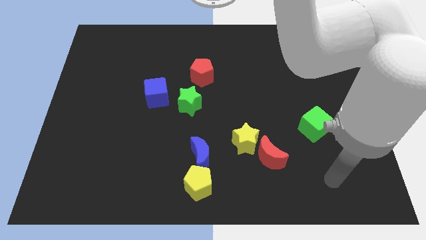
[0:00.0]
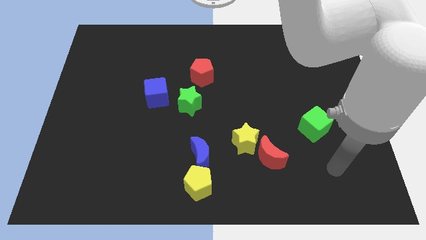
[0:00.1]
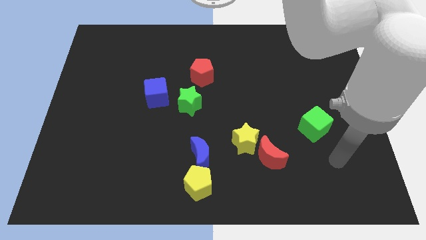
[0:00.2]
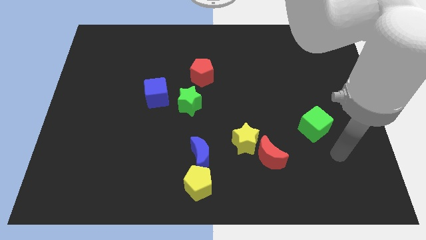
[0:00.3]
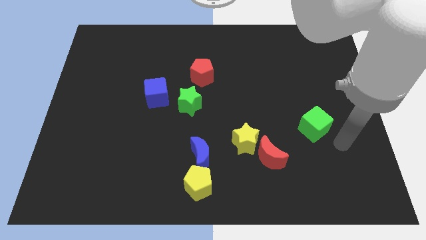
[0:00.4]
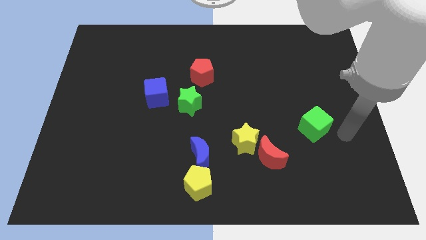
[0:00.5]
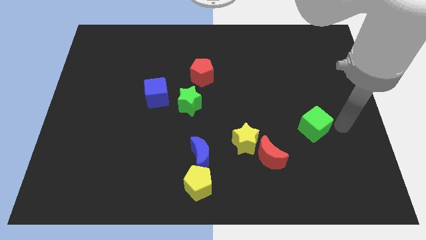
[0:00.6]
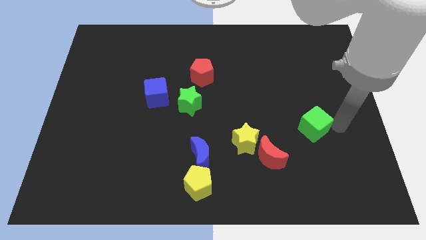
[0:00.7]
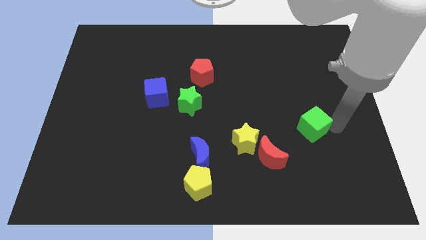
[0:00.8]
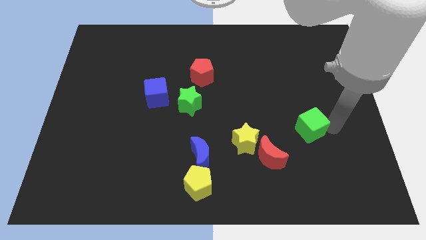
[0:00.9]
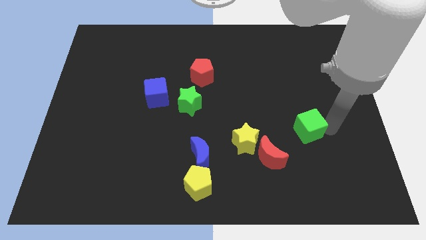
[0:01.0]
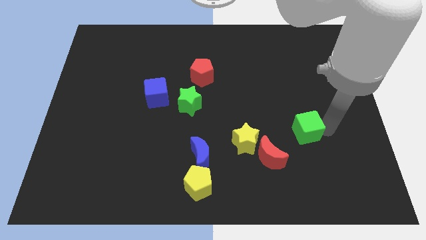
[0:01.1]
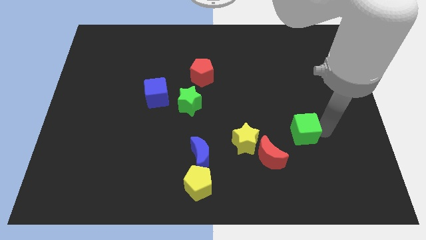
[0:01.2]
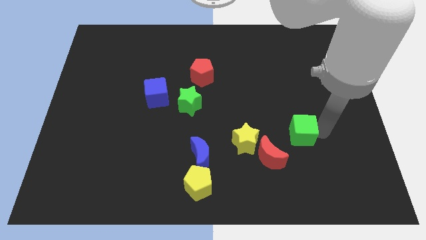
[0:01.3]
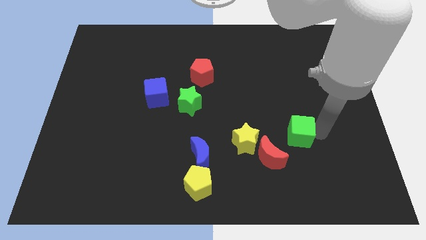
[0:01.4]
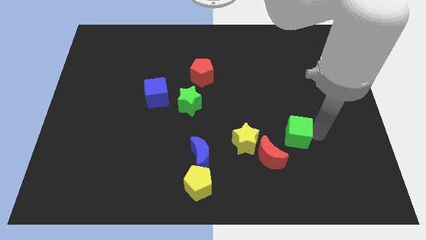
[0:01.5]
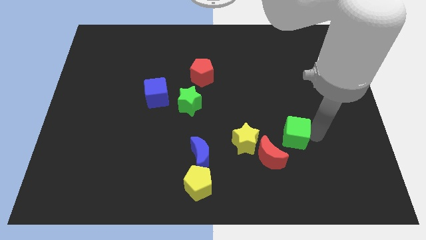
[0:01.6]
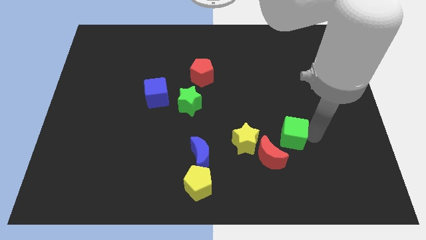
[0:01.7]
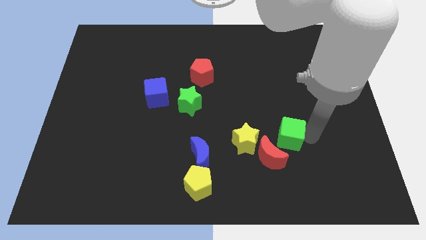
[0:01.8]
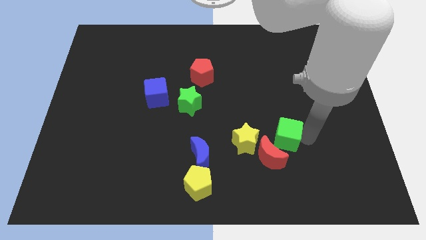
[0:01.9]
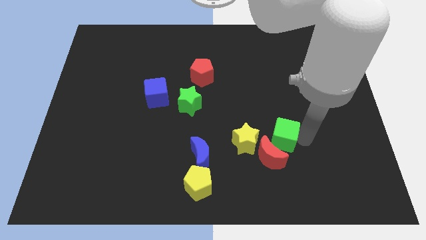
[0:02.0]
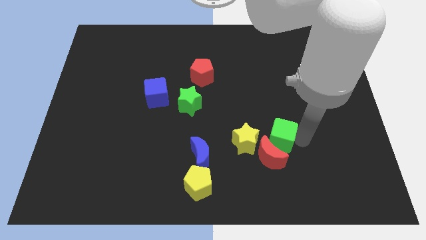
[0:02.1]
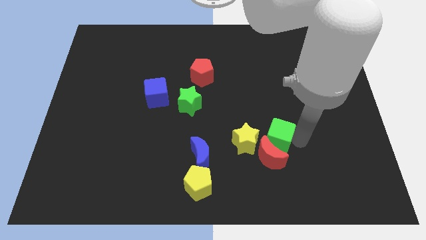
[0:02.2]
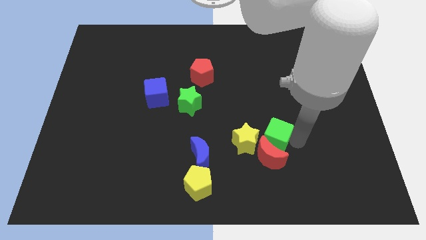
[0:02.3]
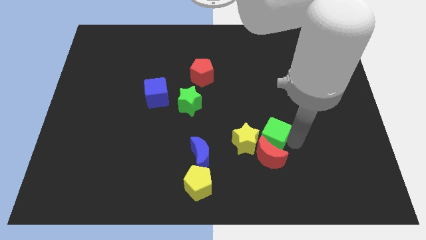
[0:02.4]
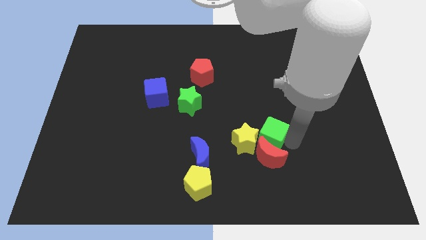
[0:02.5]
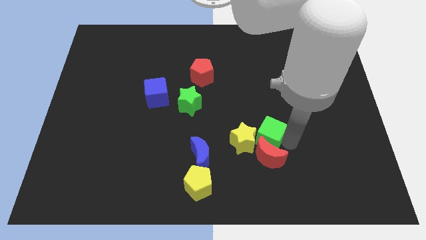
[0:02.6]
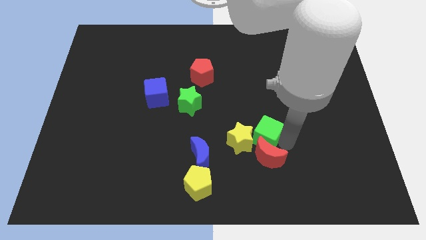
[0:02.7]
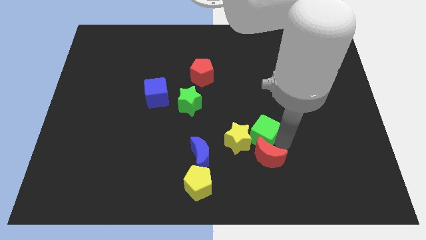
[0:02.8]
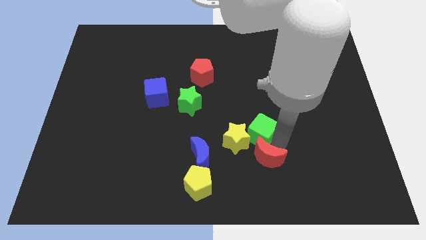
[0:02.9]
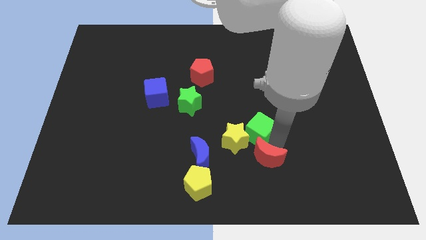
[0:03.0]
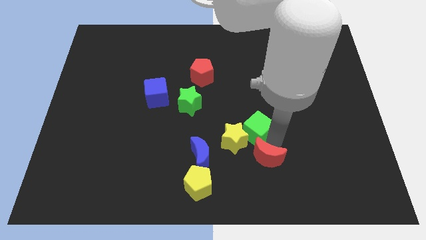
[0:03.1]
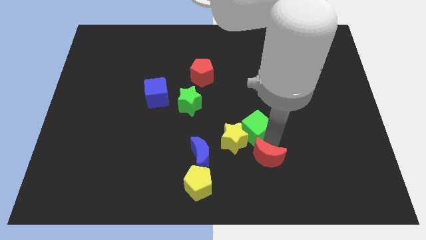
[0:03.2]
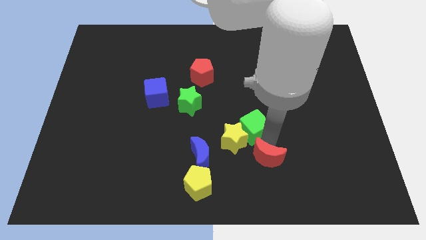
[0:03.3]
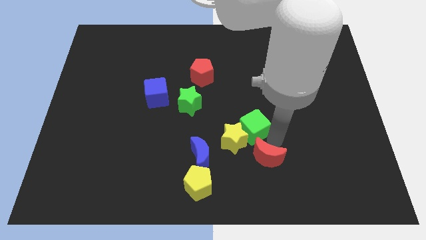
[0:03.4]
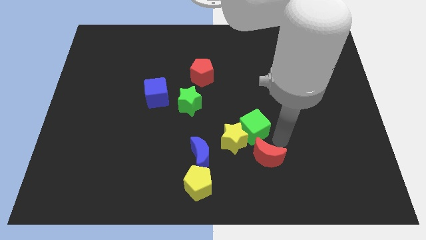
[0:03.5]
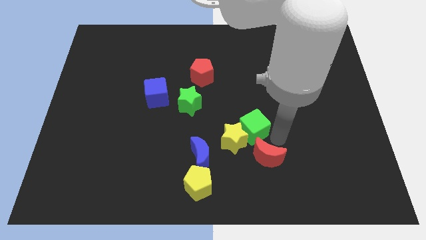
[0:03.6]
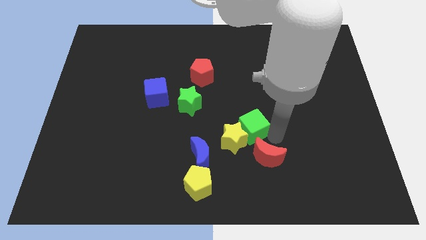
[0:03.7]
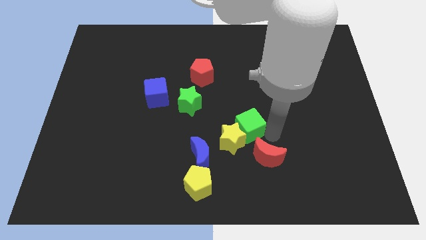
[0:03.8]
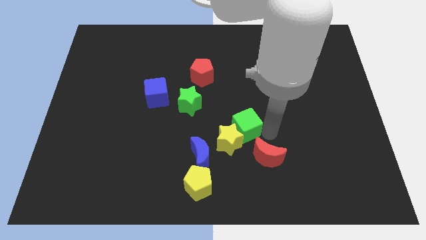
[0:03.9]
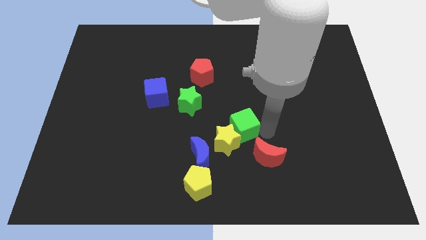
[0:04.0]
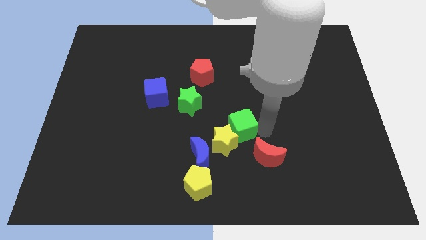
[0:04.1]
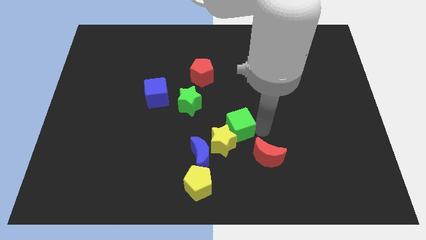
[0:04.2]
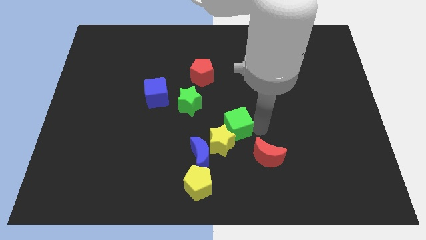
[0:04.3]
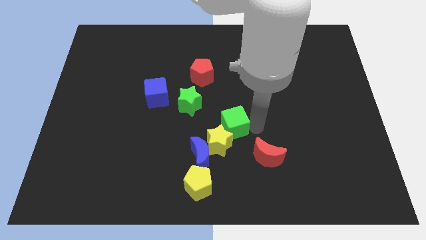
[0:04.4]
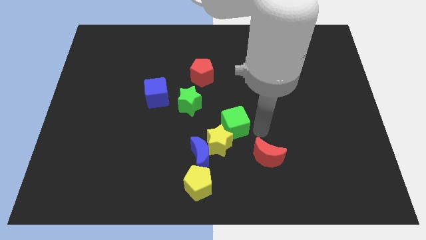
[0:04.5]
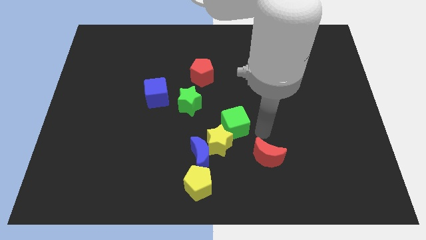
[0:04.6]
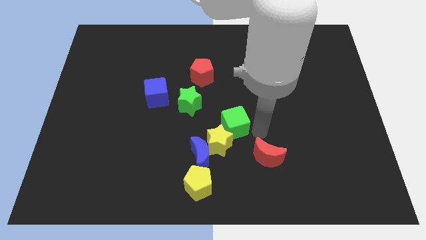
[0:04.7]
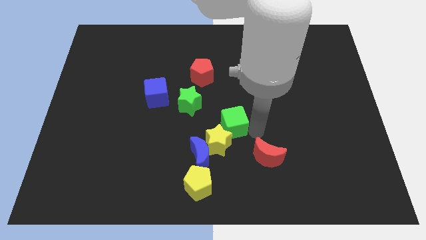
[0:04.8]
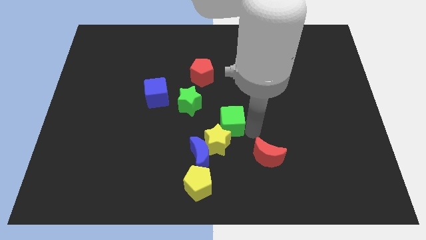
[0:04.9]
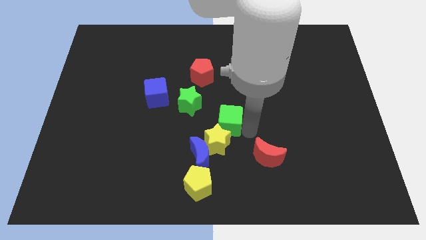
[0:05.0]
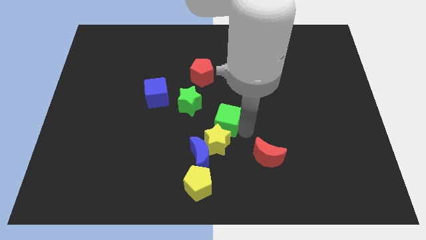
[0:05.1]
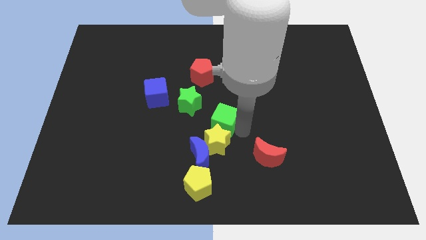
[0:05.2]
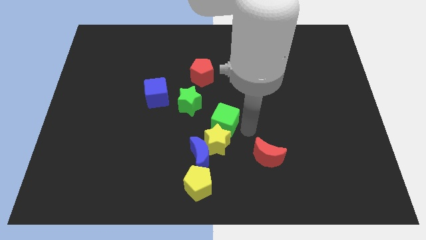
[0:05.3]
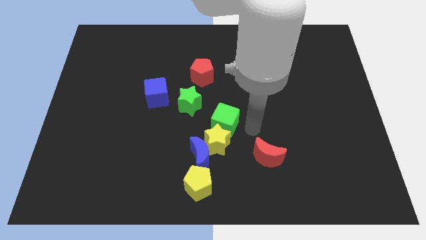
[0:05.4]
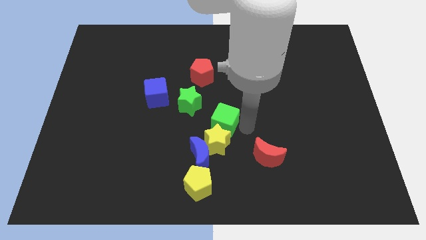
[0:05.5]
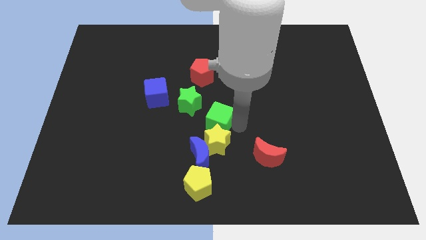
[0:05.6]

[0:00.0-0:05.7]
put the green cube above the blue moon

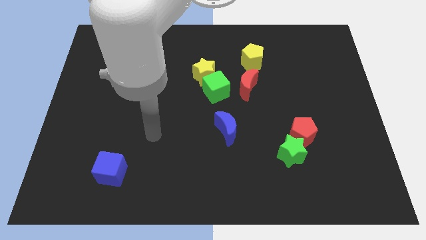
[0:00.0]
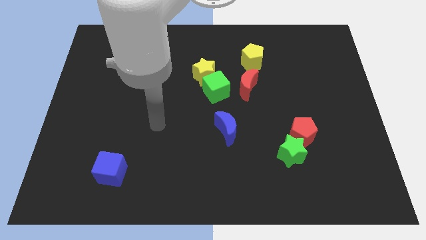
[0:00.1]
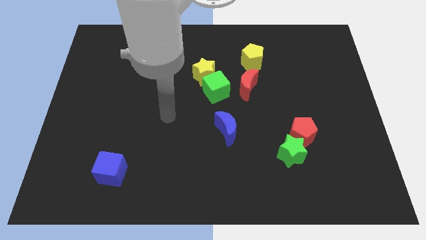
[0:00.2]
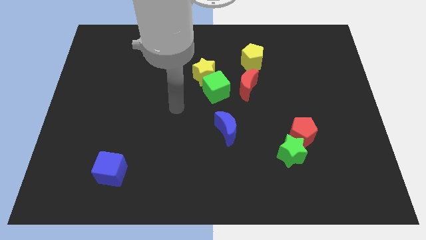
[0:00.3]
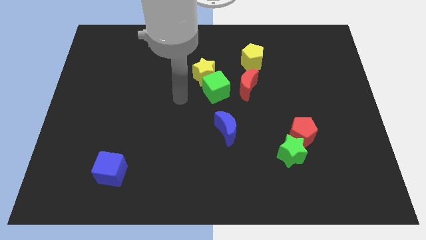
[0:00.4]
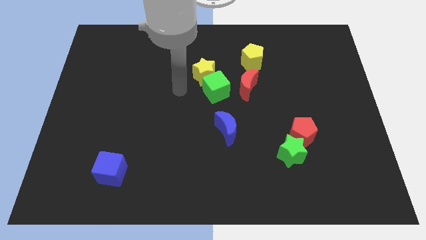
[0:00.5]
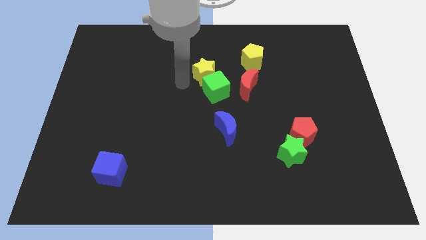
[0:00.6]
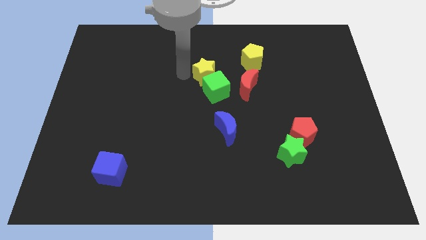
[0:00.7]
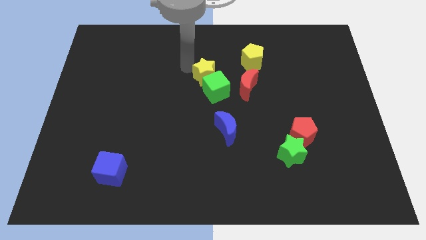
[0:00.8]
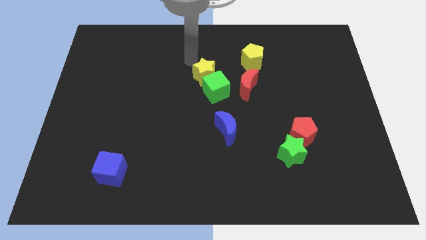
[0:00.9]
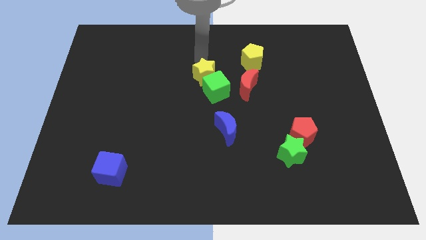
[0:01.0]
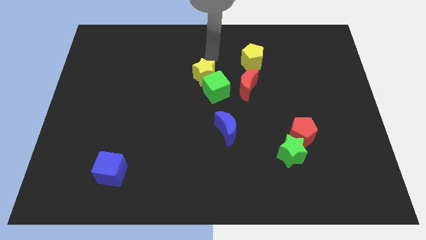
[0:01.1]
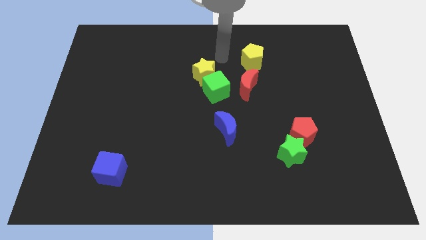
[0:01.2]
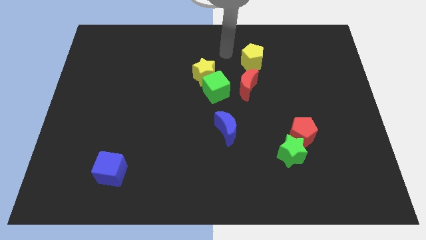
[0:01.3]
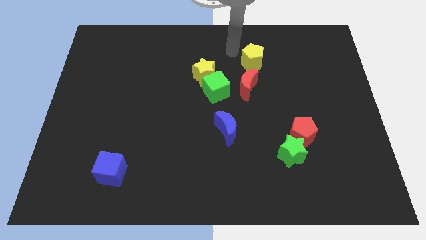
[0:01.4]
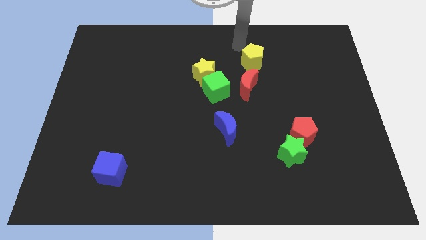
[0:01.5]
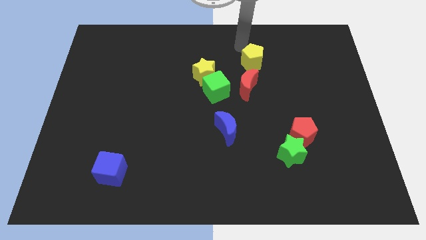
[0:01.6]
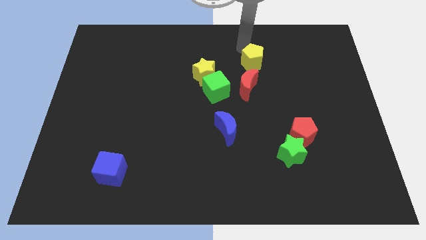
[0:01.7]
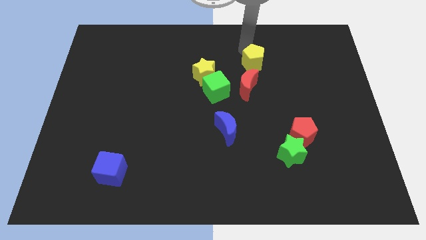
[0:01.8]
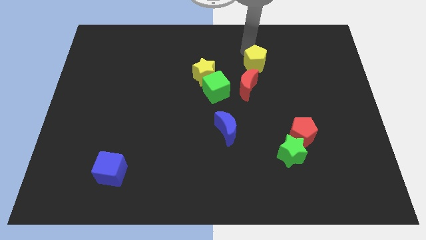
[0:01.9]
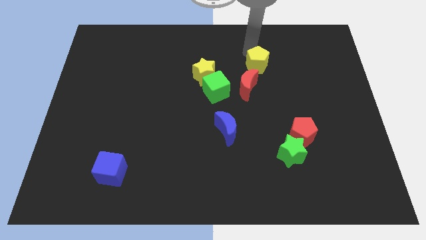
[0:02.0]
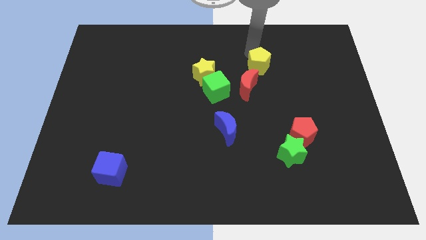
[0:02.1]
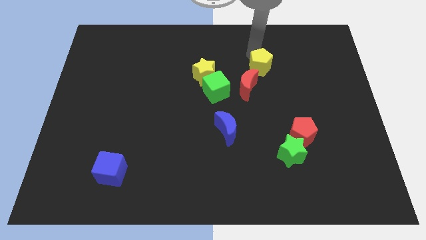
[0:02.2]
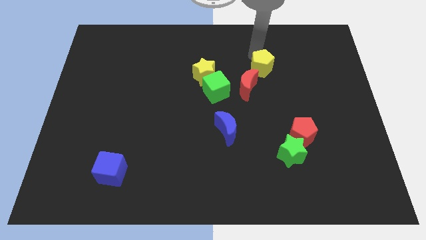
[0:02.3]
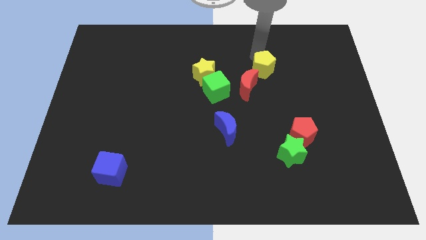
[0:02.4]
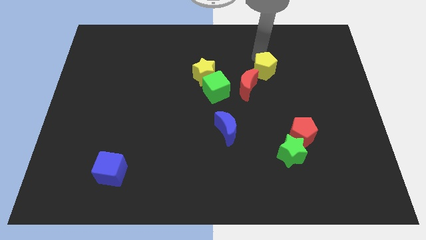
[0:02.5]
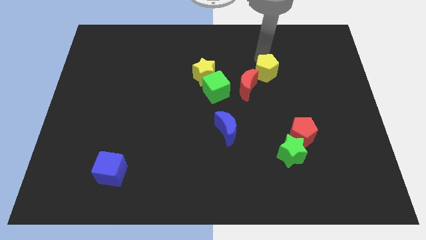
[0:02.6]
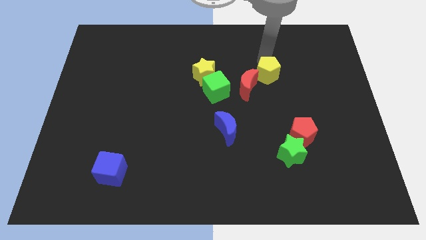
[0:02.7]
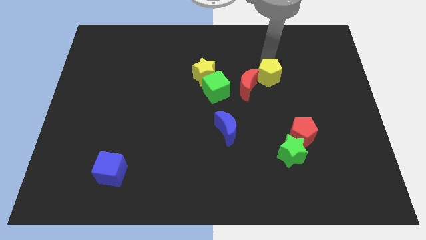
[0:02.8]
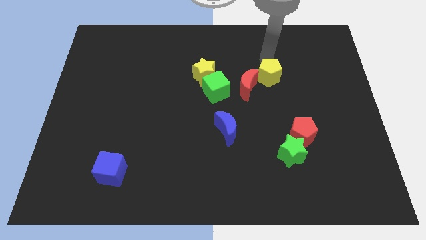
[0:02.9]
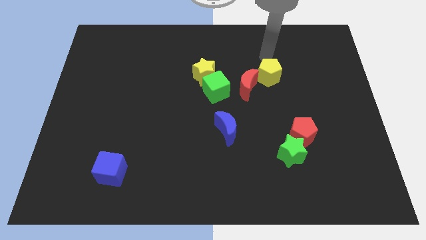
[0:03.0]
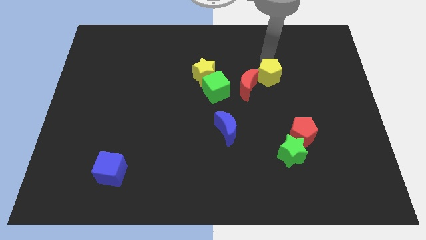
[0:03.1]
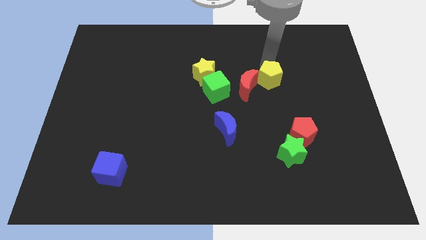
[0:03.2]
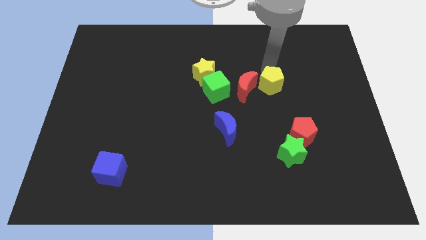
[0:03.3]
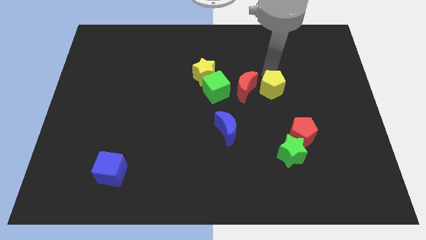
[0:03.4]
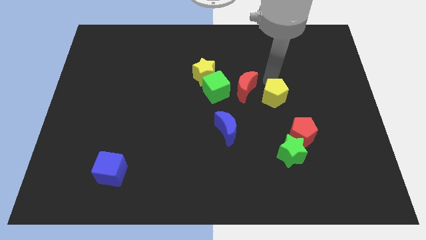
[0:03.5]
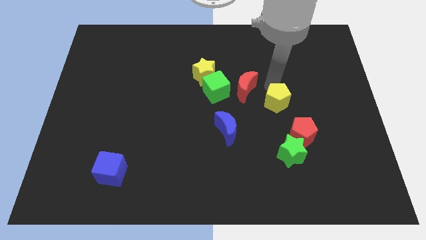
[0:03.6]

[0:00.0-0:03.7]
put the yellow pentagon to the top left side of the red pentagon
